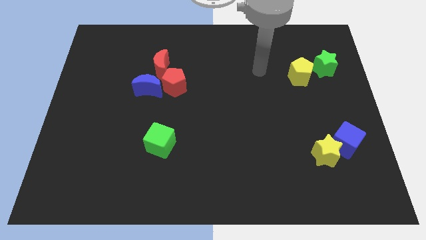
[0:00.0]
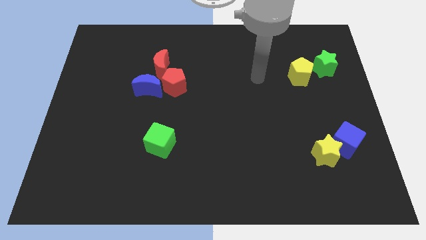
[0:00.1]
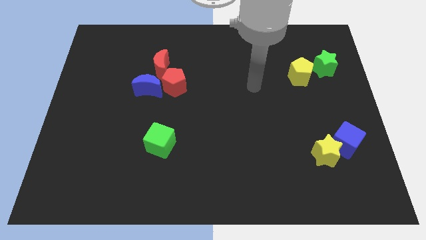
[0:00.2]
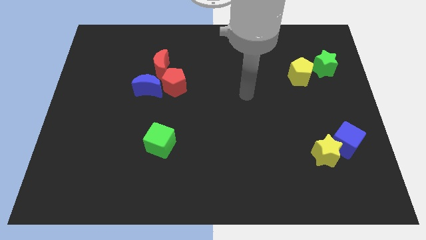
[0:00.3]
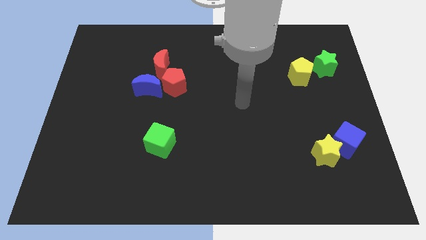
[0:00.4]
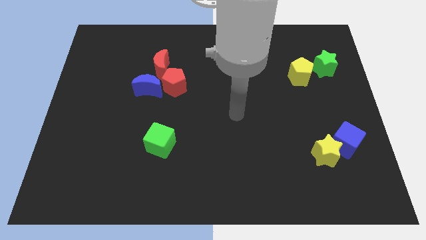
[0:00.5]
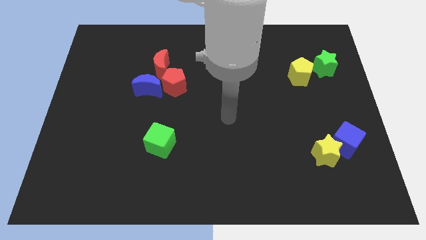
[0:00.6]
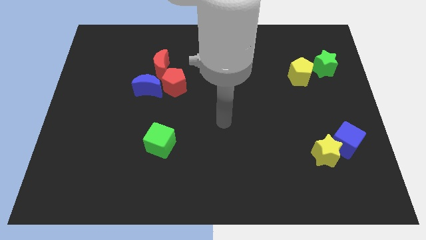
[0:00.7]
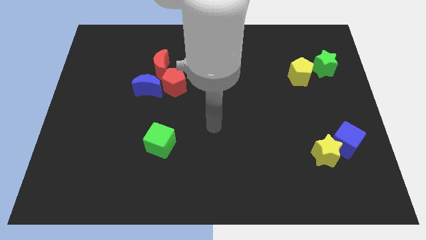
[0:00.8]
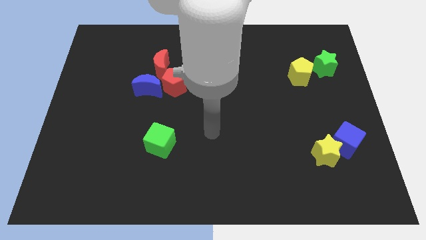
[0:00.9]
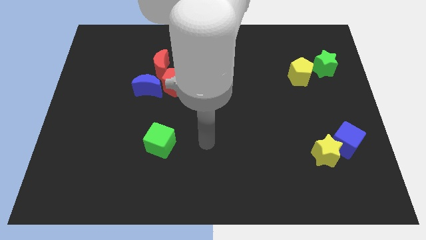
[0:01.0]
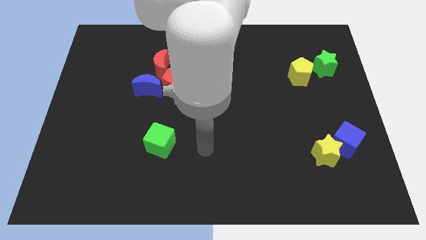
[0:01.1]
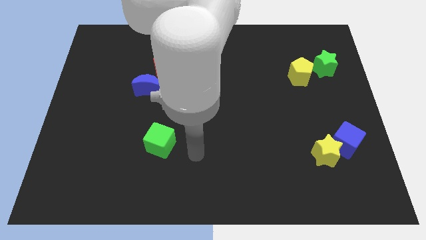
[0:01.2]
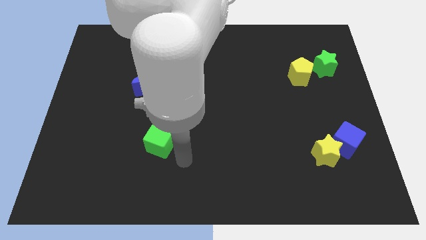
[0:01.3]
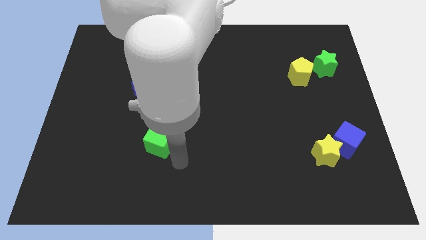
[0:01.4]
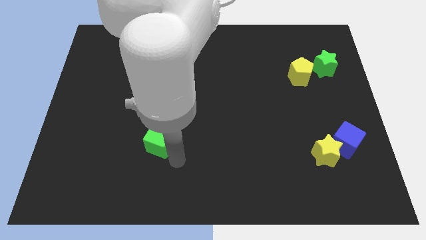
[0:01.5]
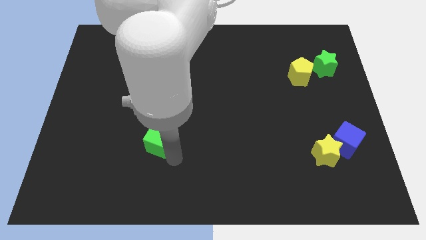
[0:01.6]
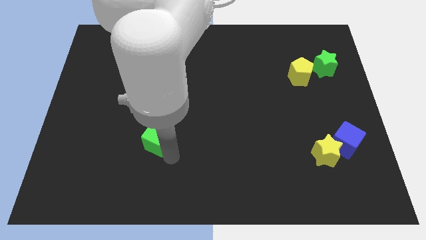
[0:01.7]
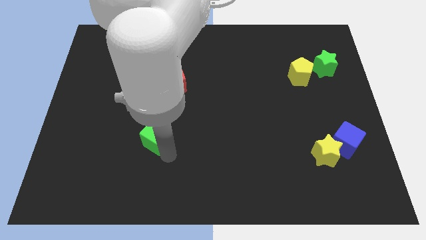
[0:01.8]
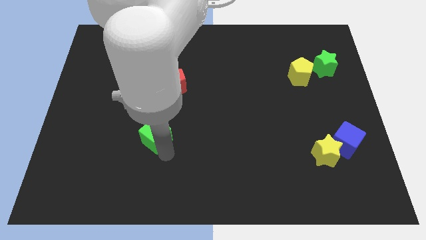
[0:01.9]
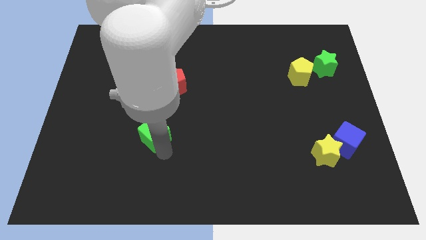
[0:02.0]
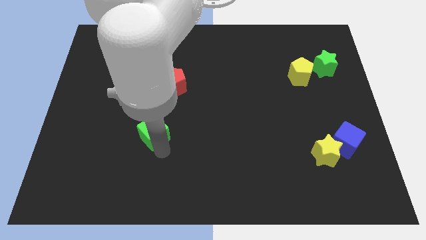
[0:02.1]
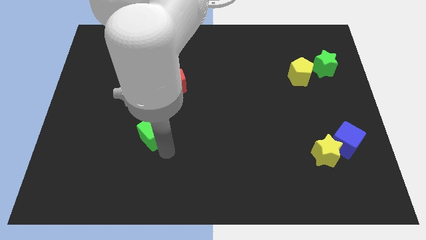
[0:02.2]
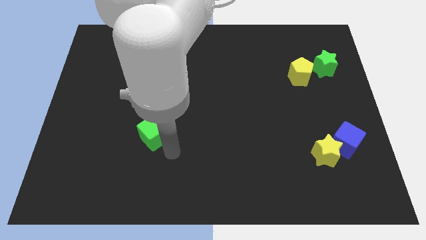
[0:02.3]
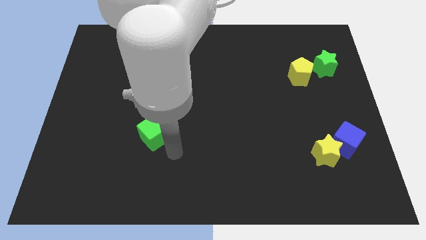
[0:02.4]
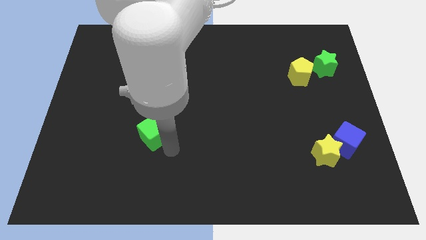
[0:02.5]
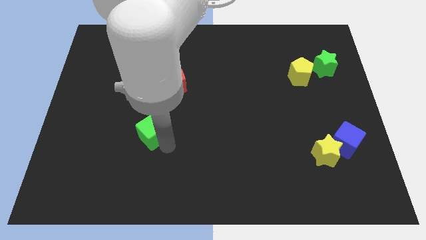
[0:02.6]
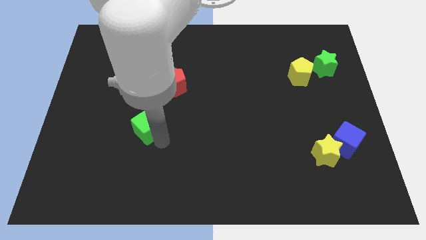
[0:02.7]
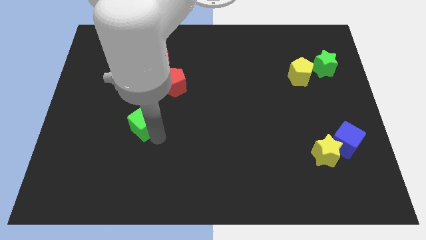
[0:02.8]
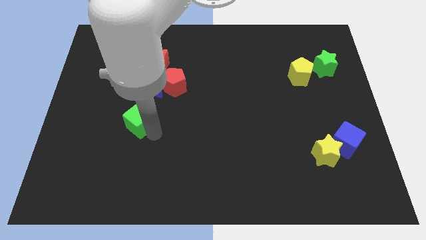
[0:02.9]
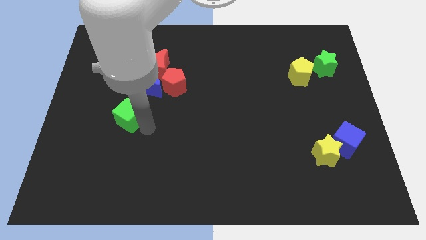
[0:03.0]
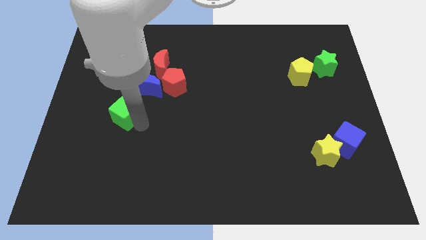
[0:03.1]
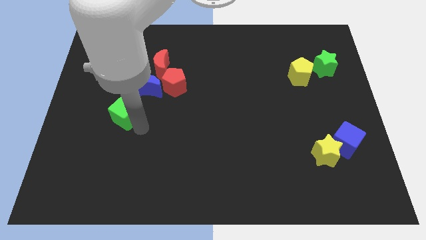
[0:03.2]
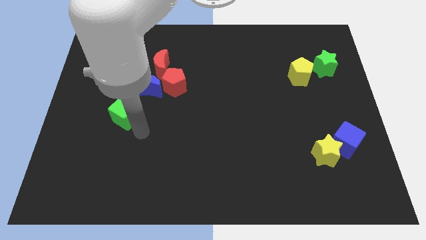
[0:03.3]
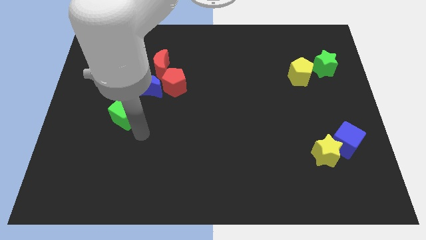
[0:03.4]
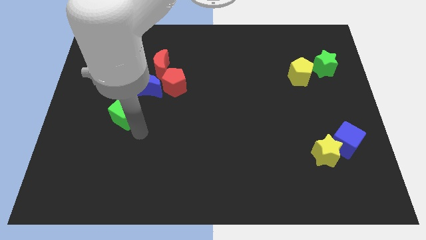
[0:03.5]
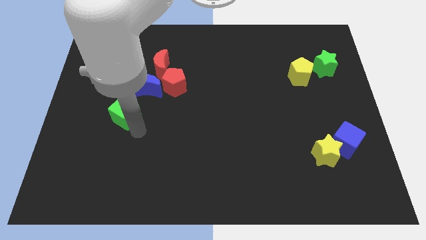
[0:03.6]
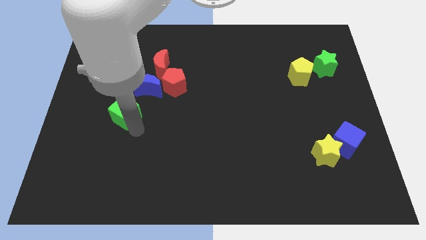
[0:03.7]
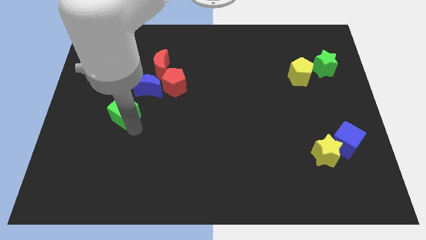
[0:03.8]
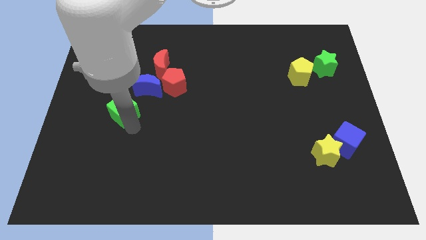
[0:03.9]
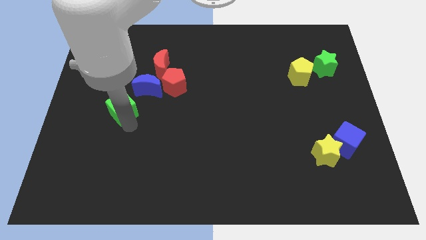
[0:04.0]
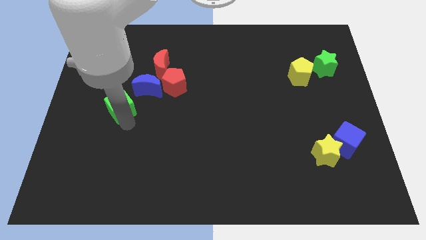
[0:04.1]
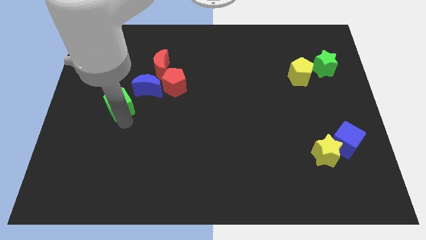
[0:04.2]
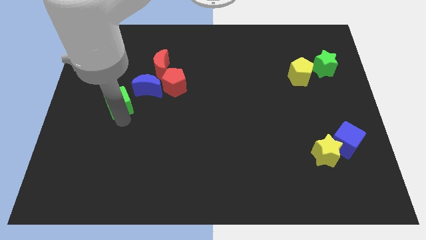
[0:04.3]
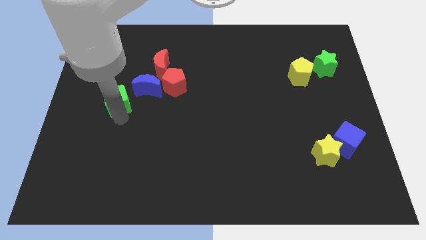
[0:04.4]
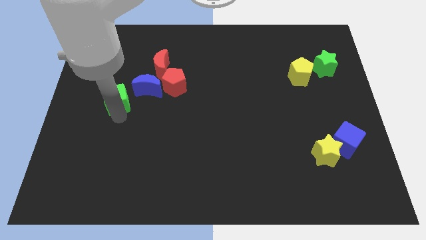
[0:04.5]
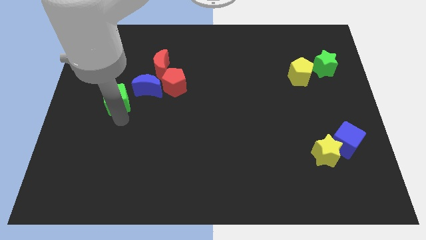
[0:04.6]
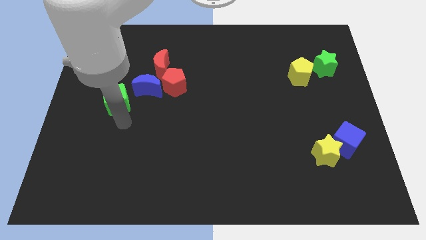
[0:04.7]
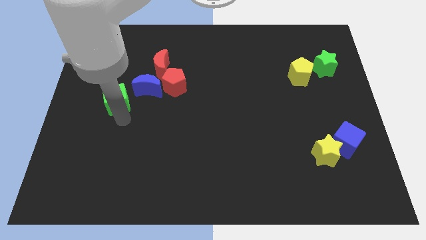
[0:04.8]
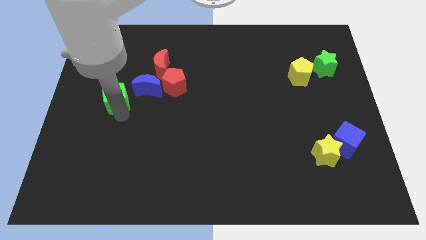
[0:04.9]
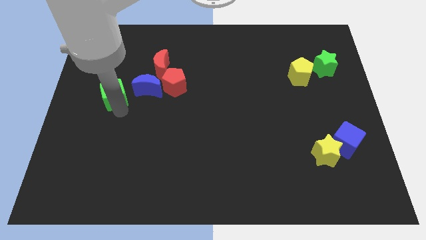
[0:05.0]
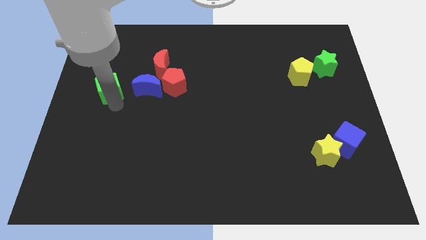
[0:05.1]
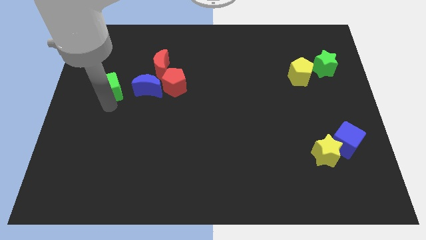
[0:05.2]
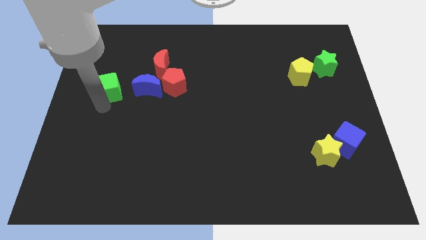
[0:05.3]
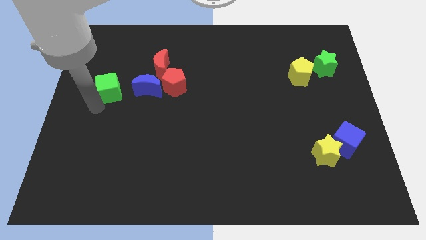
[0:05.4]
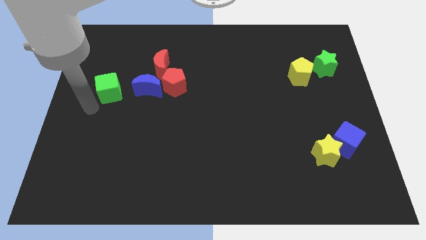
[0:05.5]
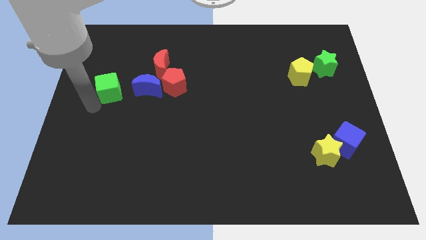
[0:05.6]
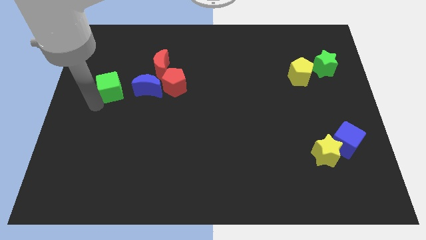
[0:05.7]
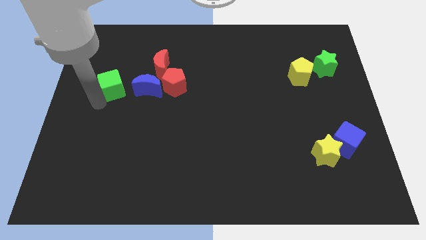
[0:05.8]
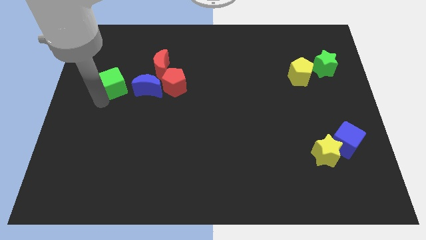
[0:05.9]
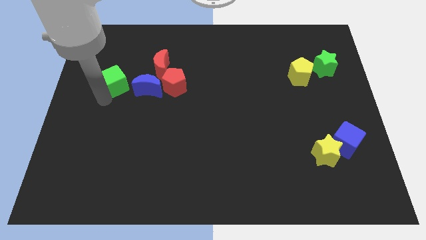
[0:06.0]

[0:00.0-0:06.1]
move the green cube to the top left of the blue moon
